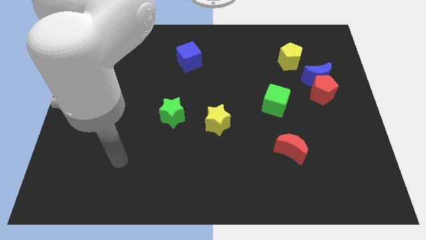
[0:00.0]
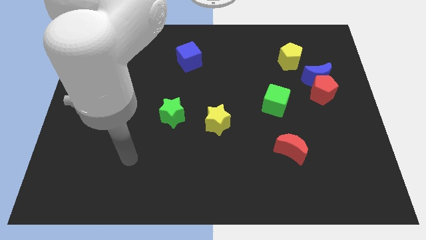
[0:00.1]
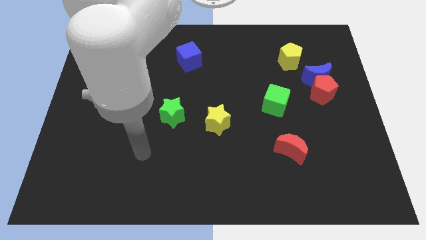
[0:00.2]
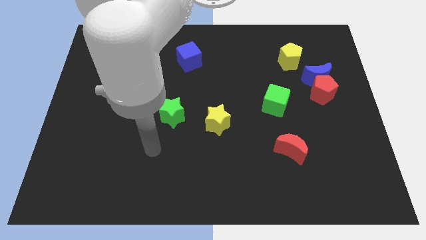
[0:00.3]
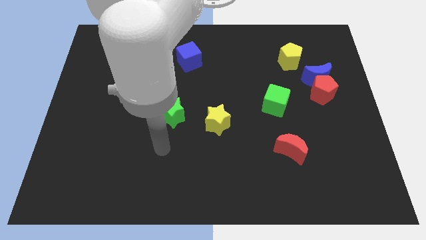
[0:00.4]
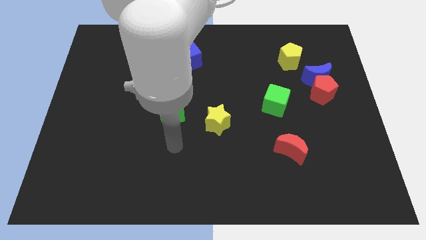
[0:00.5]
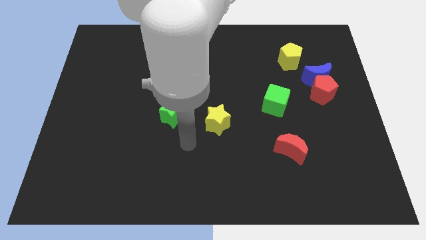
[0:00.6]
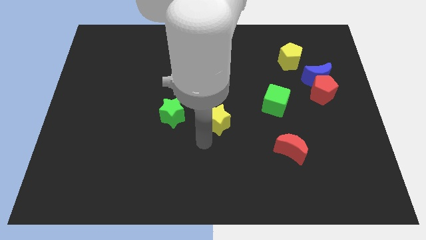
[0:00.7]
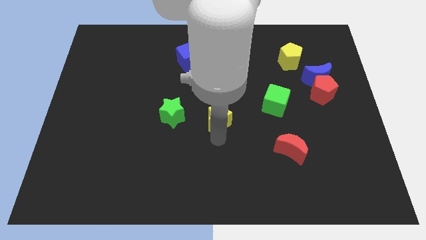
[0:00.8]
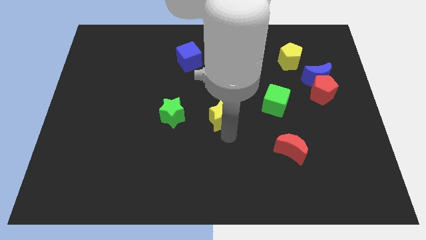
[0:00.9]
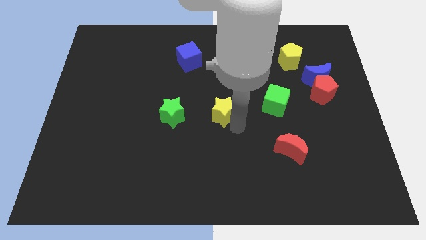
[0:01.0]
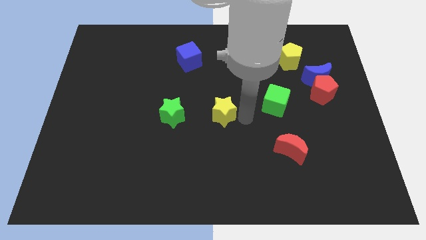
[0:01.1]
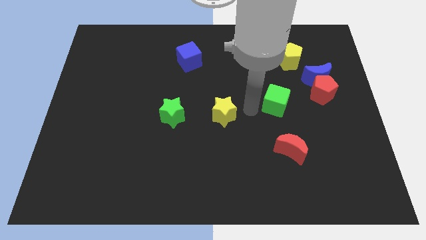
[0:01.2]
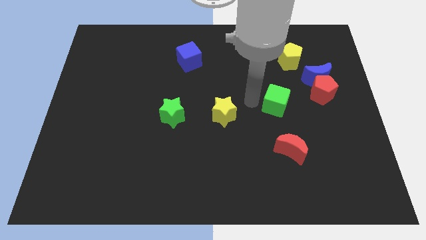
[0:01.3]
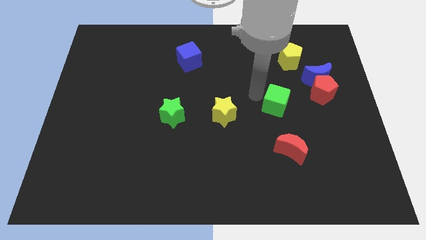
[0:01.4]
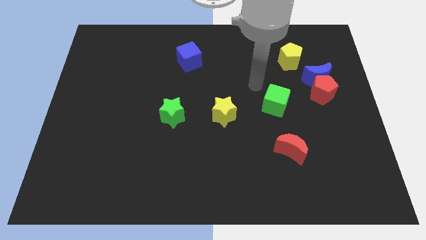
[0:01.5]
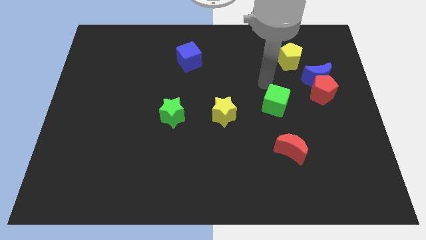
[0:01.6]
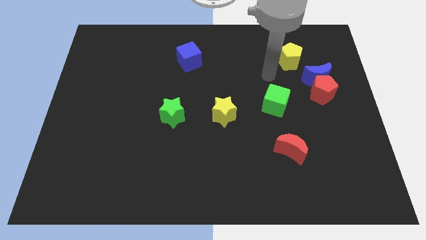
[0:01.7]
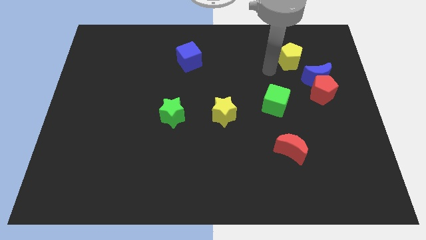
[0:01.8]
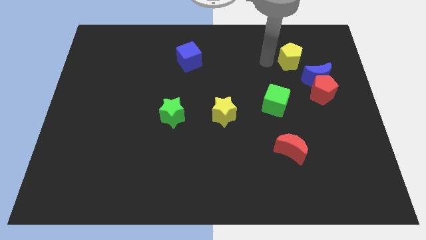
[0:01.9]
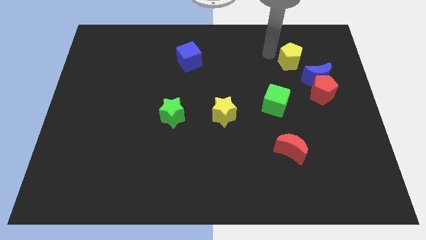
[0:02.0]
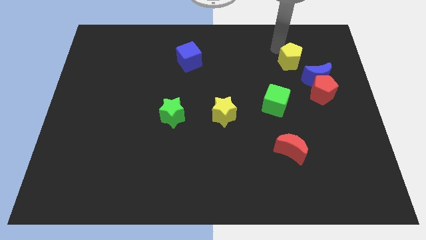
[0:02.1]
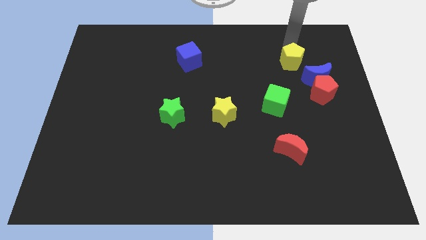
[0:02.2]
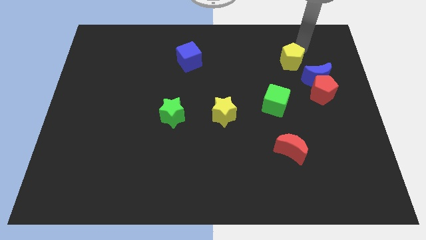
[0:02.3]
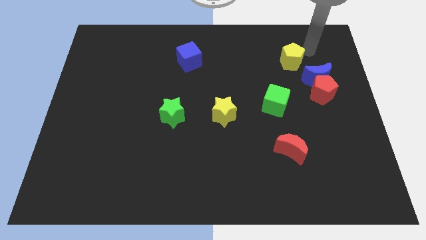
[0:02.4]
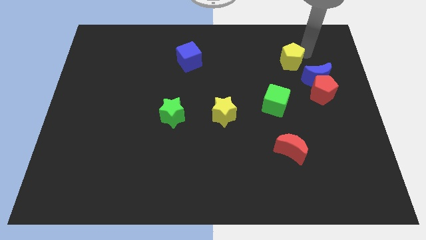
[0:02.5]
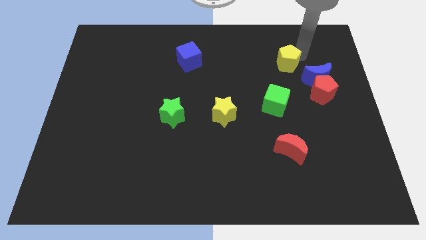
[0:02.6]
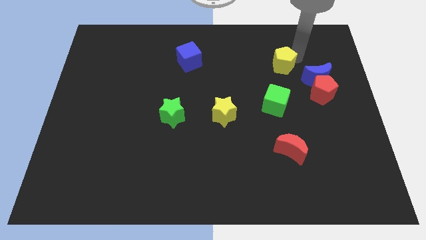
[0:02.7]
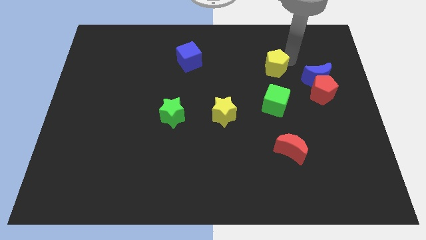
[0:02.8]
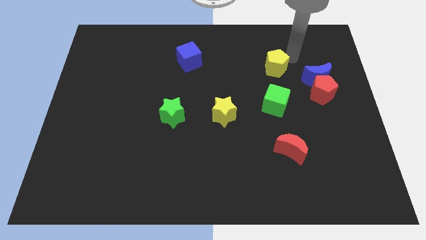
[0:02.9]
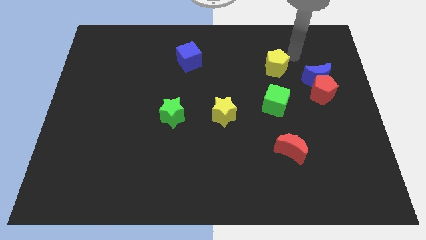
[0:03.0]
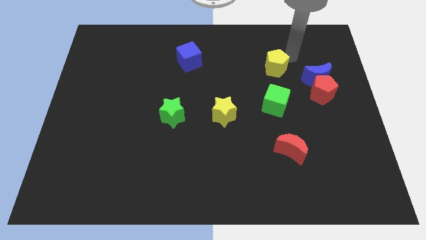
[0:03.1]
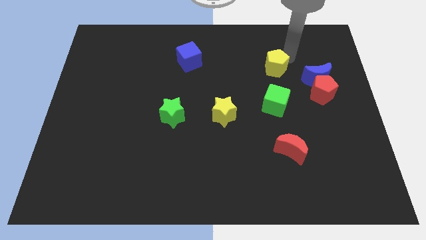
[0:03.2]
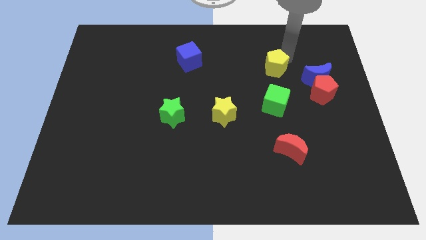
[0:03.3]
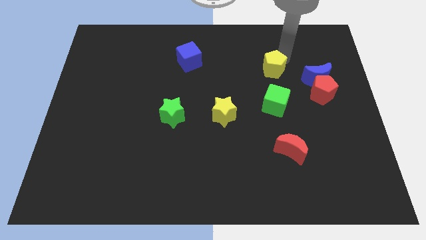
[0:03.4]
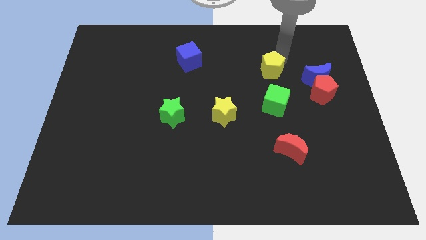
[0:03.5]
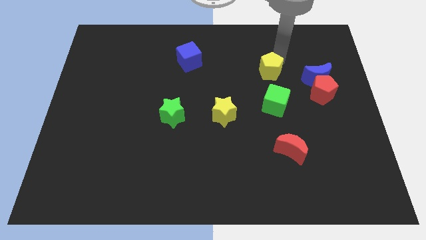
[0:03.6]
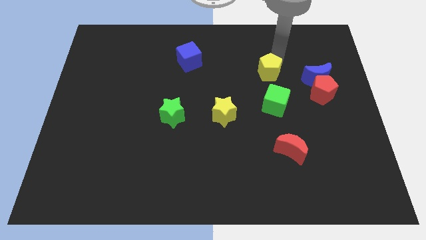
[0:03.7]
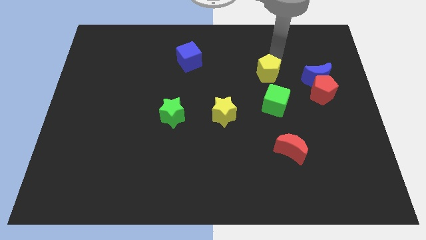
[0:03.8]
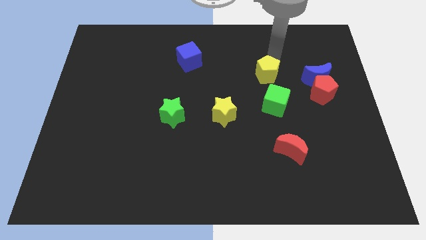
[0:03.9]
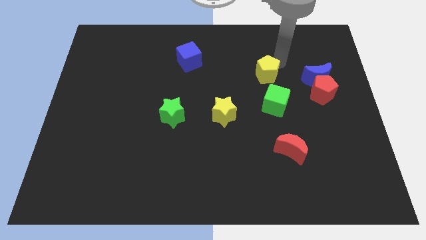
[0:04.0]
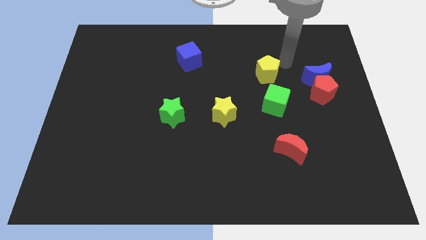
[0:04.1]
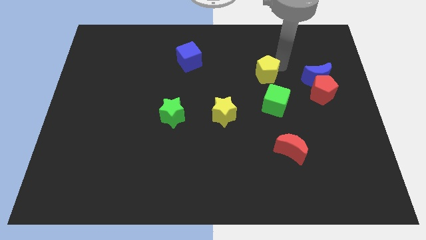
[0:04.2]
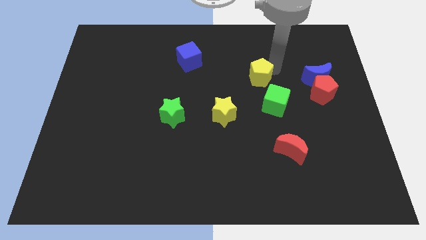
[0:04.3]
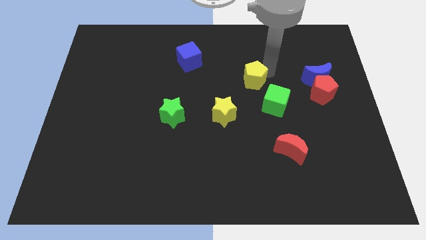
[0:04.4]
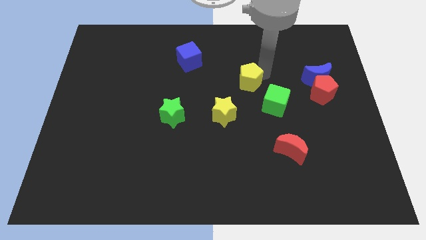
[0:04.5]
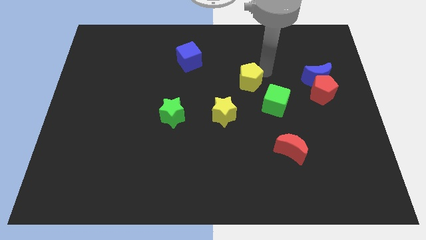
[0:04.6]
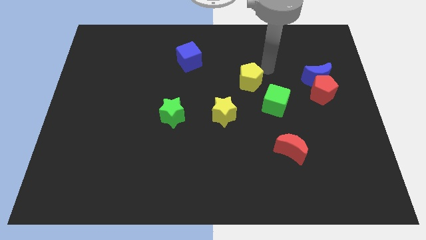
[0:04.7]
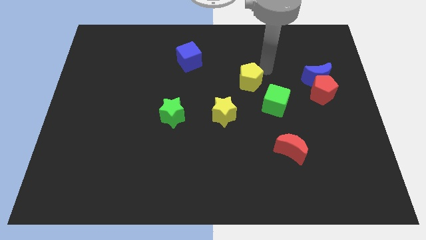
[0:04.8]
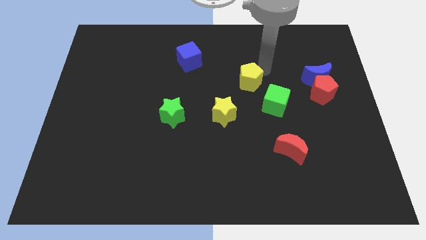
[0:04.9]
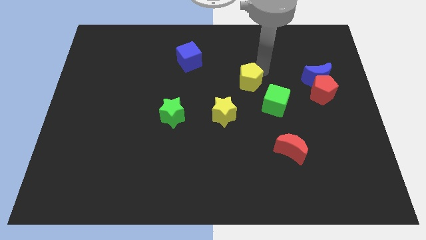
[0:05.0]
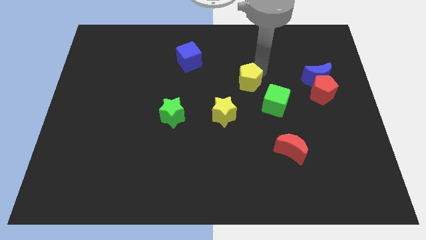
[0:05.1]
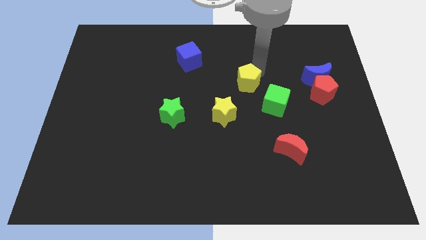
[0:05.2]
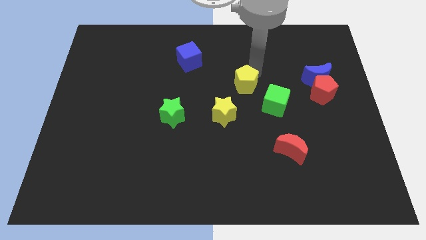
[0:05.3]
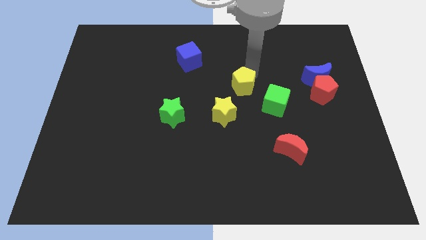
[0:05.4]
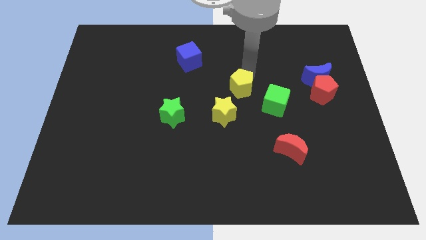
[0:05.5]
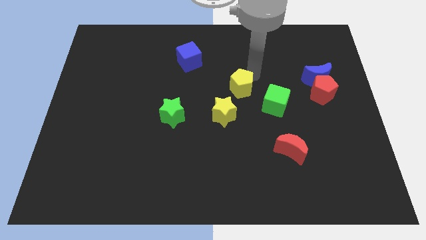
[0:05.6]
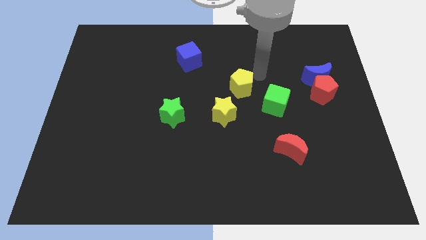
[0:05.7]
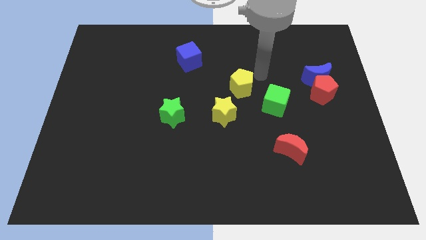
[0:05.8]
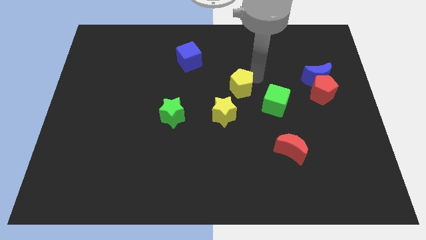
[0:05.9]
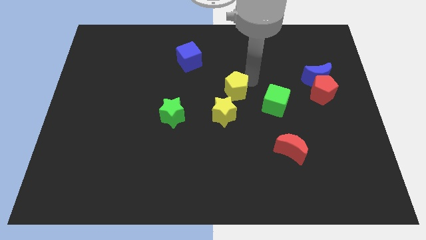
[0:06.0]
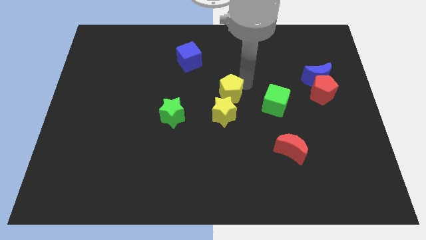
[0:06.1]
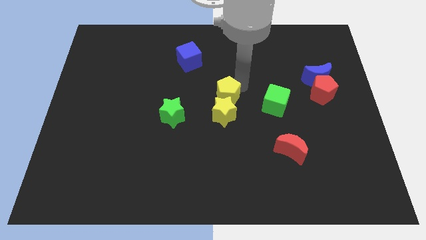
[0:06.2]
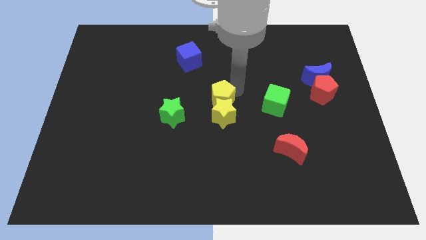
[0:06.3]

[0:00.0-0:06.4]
push the yellow pentagon to the top left of the yellow star
